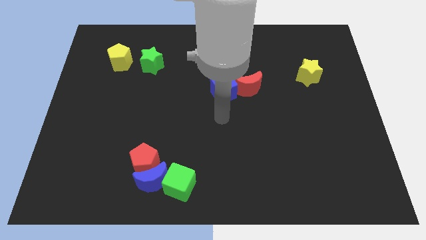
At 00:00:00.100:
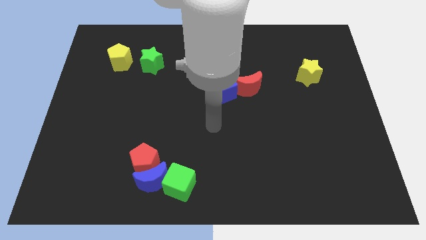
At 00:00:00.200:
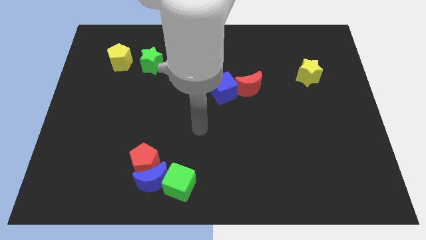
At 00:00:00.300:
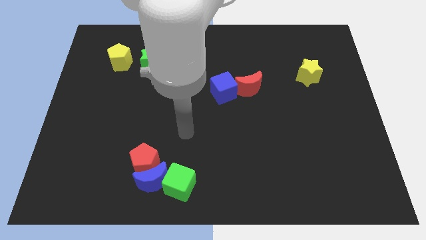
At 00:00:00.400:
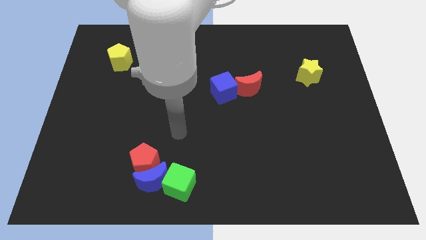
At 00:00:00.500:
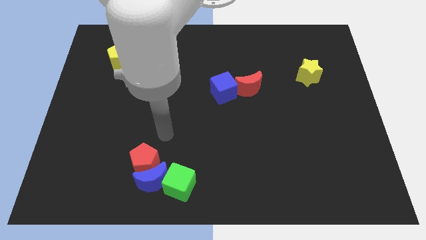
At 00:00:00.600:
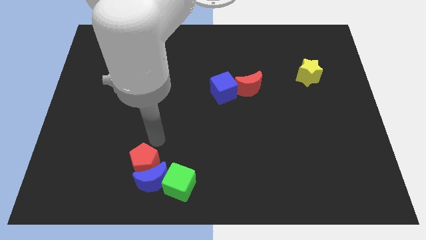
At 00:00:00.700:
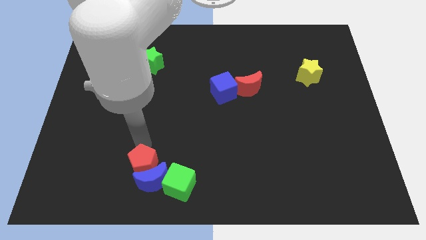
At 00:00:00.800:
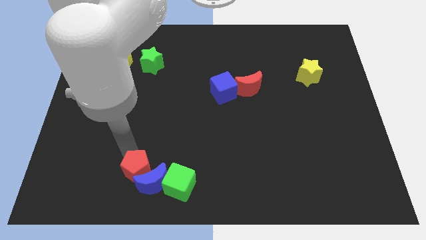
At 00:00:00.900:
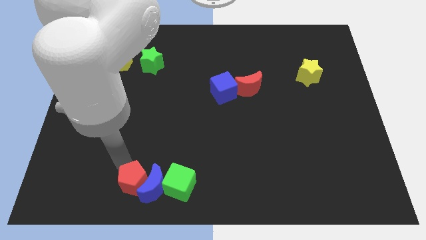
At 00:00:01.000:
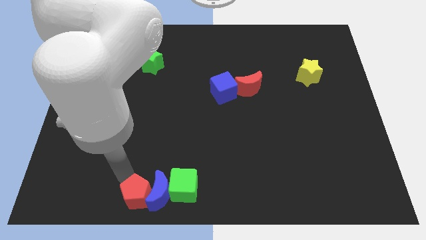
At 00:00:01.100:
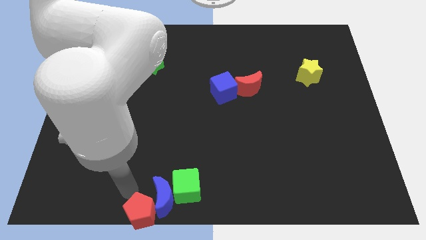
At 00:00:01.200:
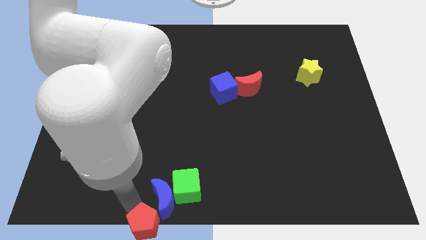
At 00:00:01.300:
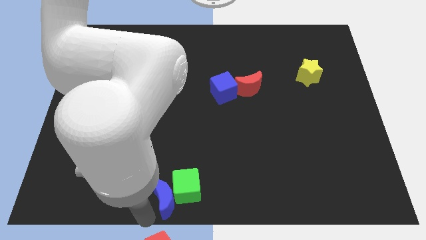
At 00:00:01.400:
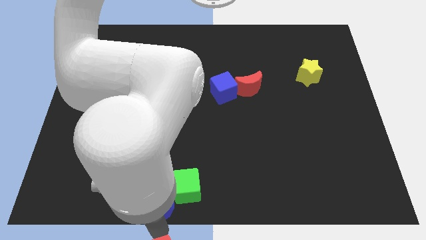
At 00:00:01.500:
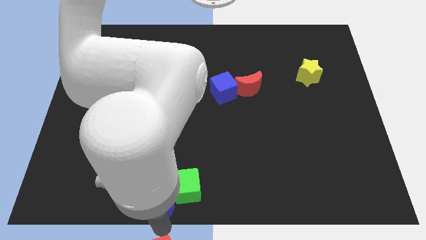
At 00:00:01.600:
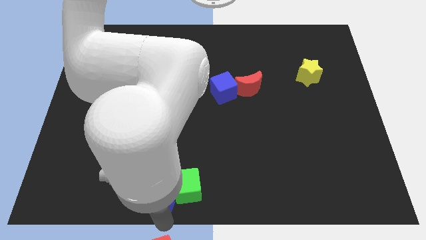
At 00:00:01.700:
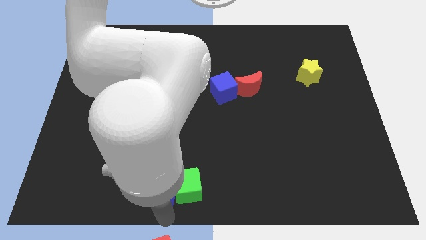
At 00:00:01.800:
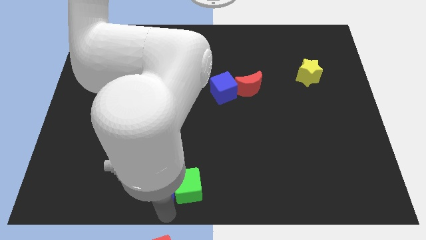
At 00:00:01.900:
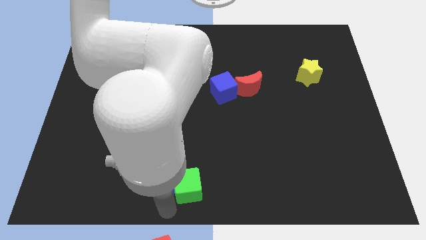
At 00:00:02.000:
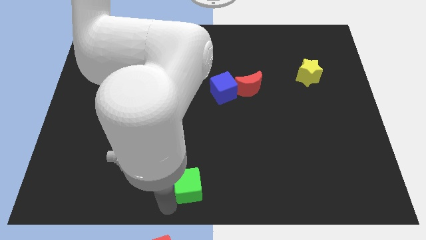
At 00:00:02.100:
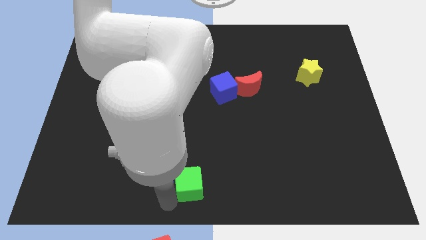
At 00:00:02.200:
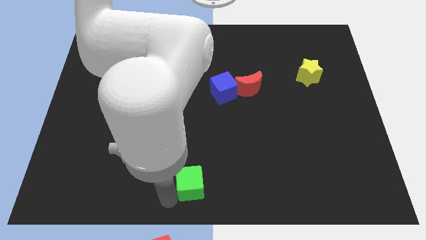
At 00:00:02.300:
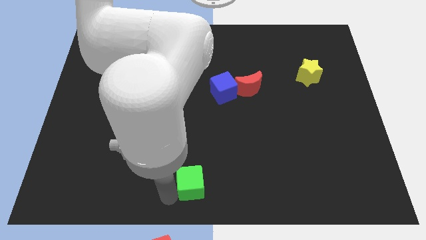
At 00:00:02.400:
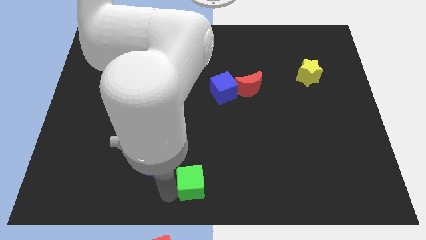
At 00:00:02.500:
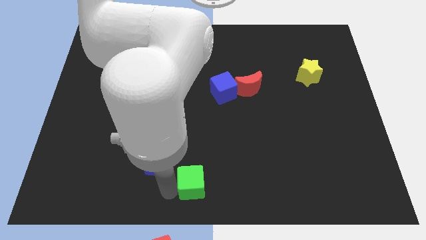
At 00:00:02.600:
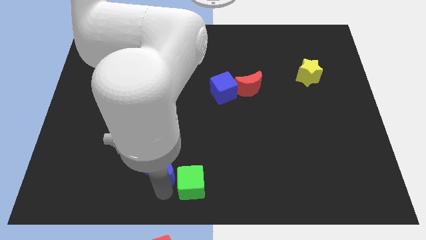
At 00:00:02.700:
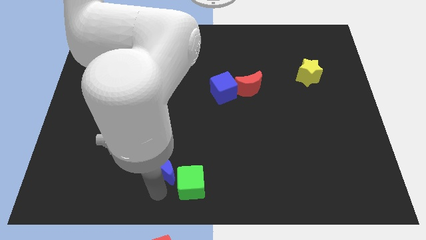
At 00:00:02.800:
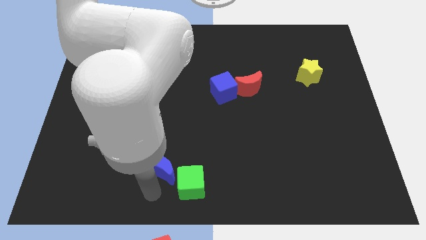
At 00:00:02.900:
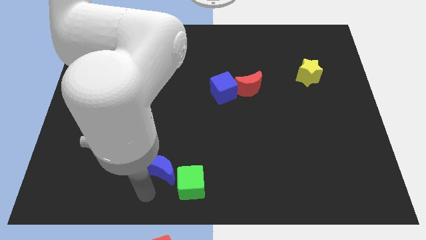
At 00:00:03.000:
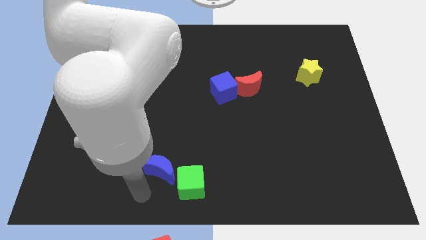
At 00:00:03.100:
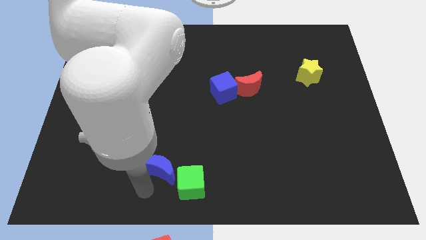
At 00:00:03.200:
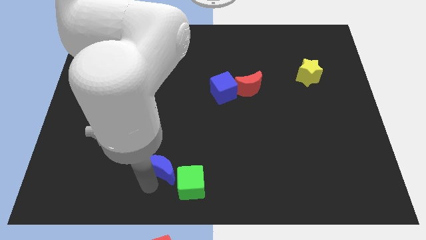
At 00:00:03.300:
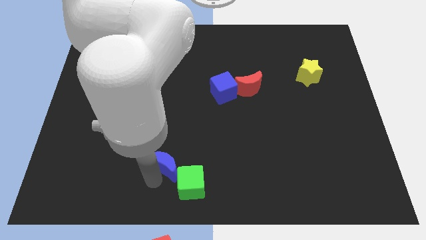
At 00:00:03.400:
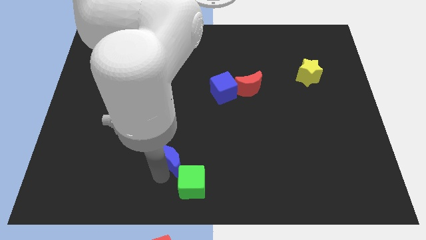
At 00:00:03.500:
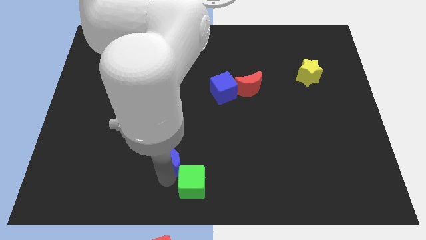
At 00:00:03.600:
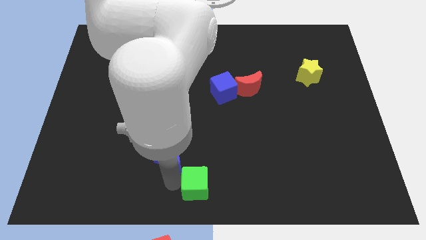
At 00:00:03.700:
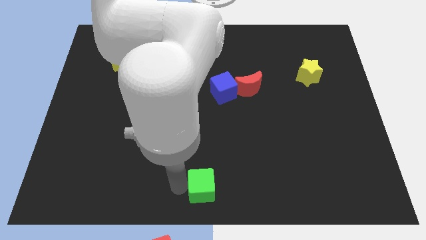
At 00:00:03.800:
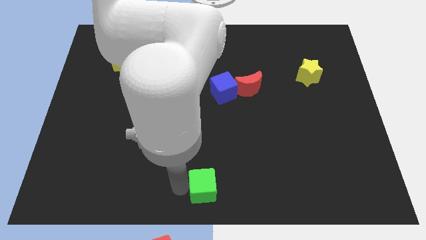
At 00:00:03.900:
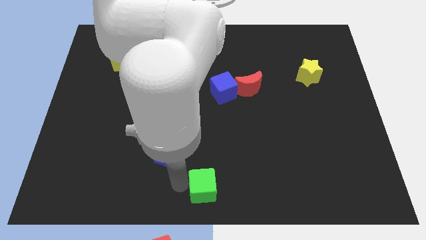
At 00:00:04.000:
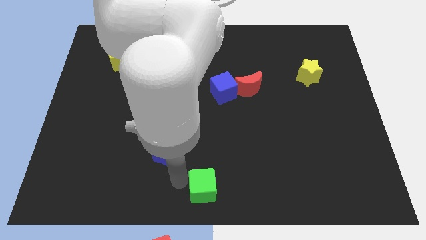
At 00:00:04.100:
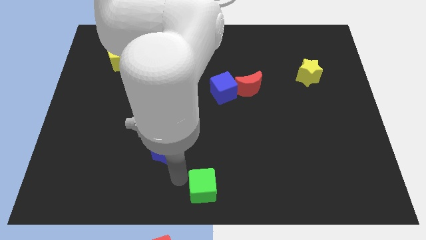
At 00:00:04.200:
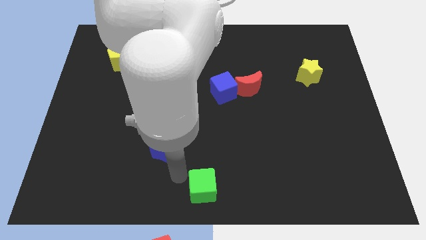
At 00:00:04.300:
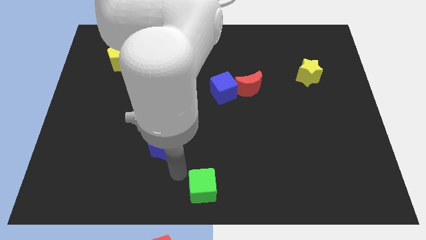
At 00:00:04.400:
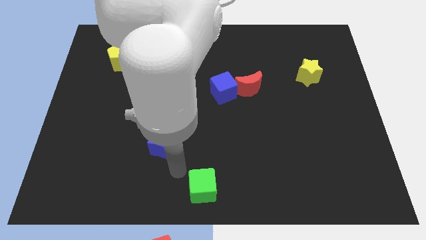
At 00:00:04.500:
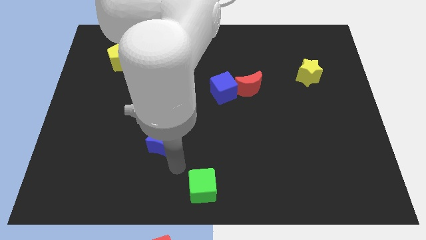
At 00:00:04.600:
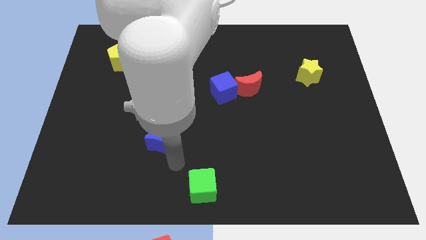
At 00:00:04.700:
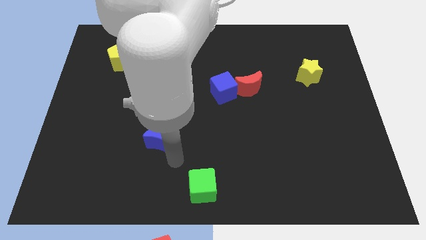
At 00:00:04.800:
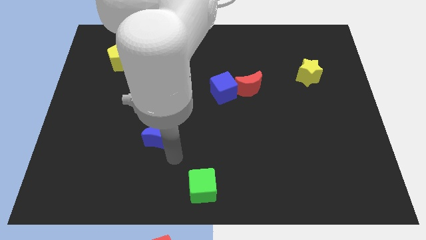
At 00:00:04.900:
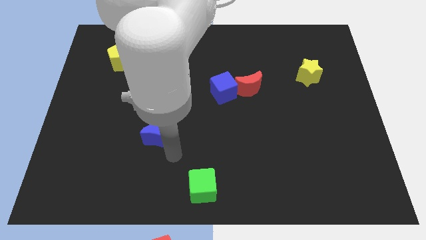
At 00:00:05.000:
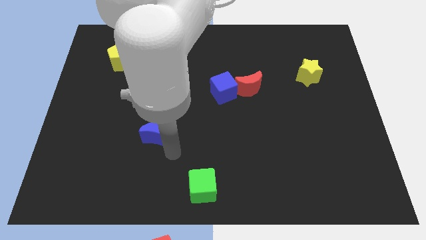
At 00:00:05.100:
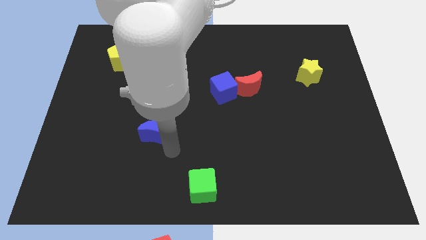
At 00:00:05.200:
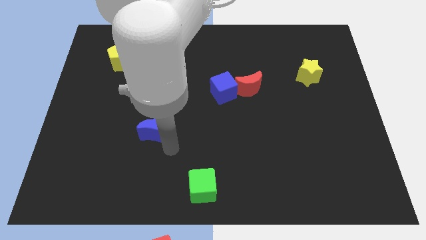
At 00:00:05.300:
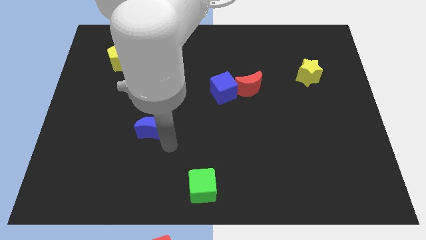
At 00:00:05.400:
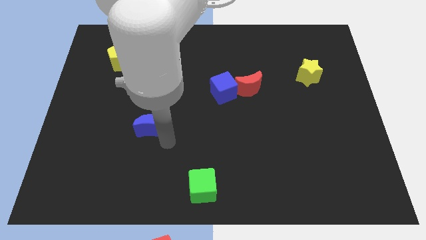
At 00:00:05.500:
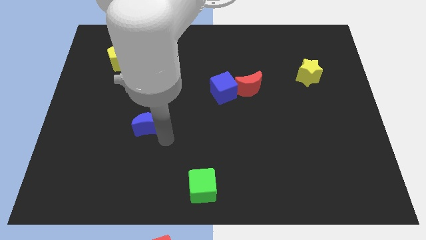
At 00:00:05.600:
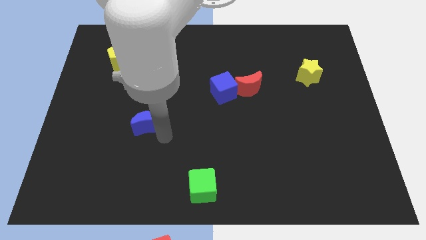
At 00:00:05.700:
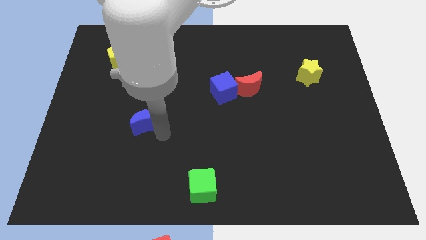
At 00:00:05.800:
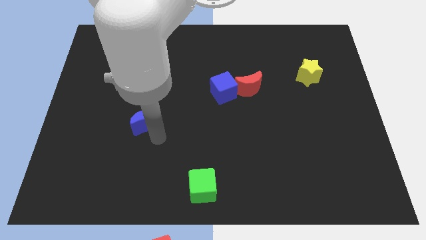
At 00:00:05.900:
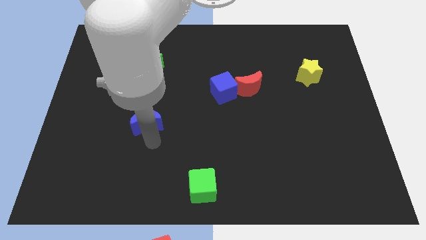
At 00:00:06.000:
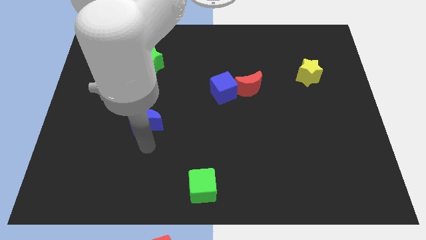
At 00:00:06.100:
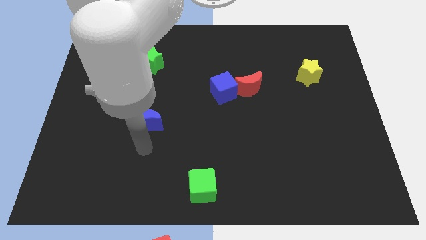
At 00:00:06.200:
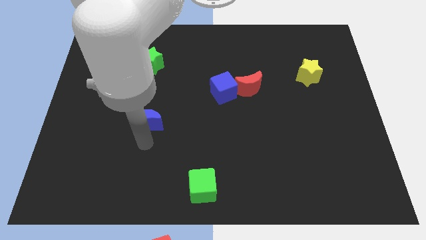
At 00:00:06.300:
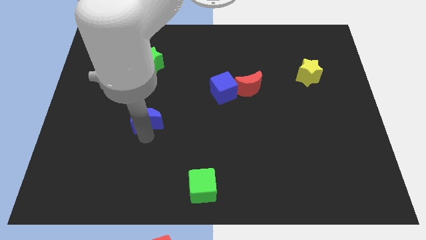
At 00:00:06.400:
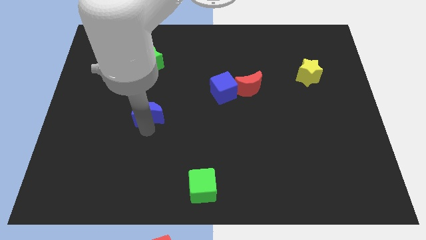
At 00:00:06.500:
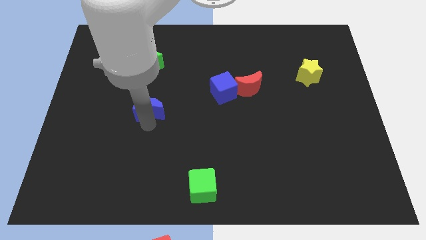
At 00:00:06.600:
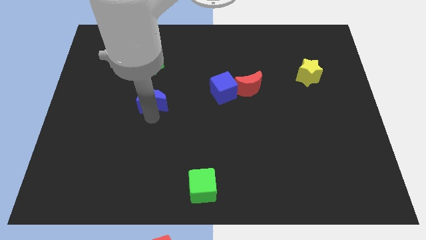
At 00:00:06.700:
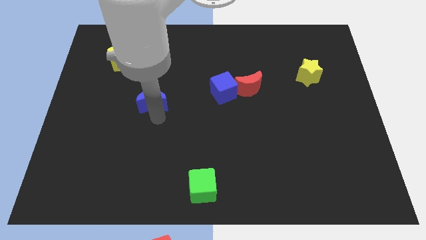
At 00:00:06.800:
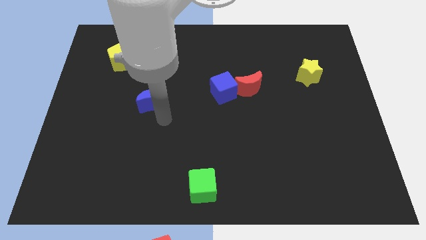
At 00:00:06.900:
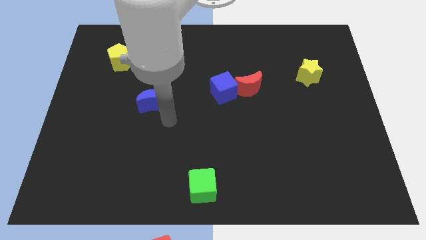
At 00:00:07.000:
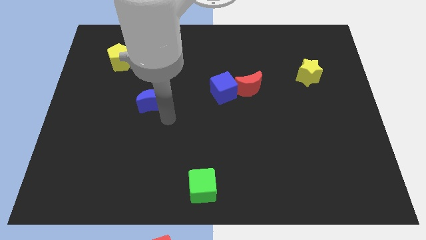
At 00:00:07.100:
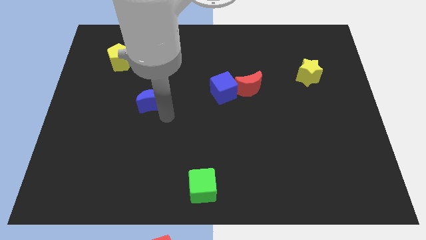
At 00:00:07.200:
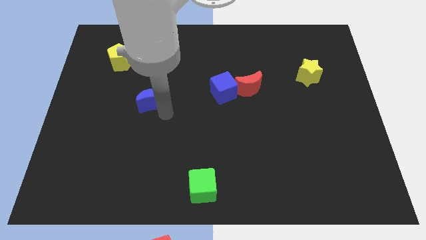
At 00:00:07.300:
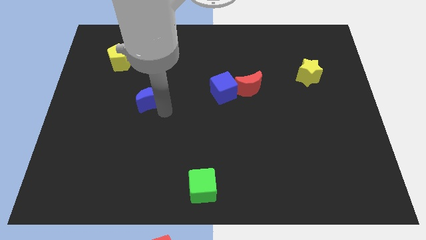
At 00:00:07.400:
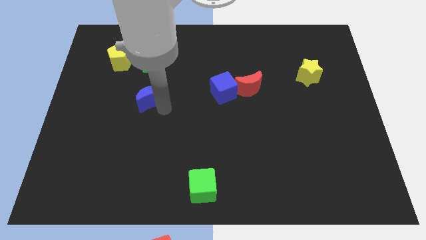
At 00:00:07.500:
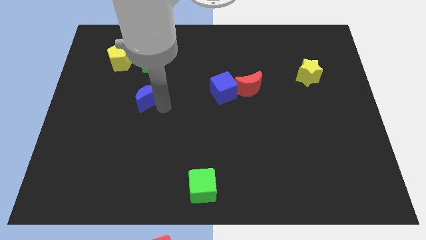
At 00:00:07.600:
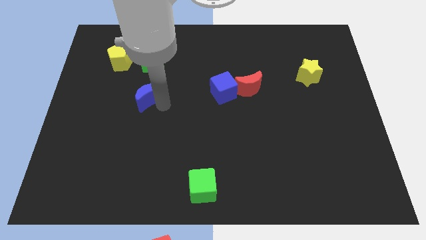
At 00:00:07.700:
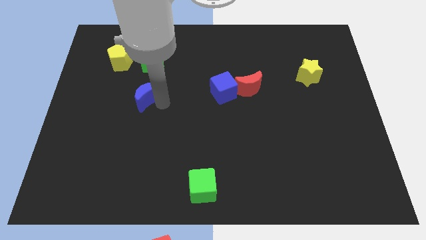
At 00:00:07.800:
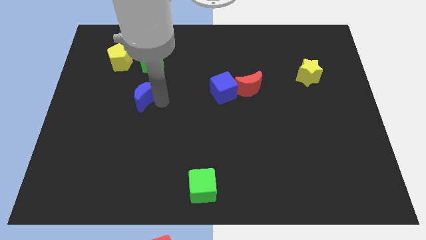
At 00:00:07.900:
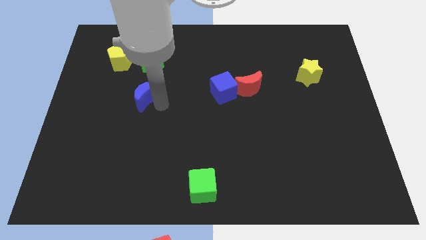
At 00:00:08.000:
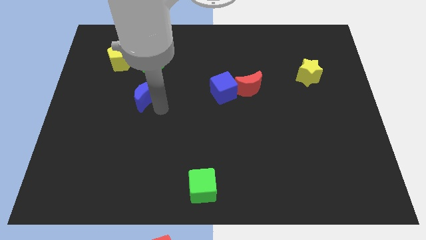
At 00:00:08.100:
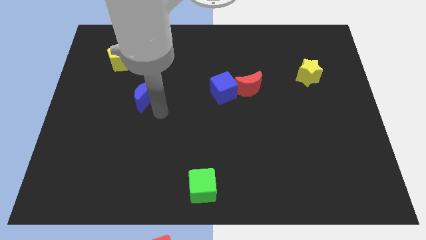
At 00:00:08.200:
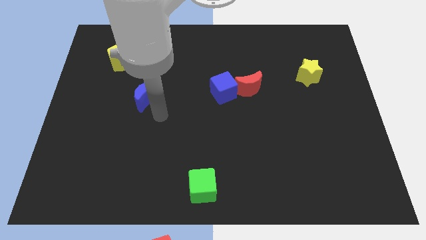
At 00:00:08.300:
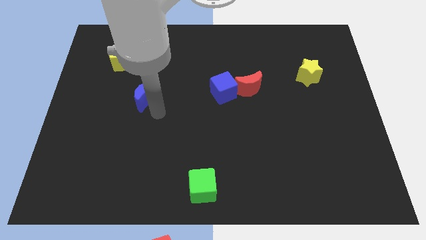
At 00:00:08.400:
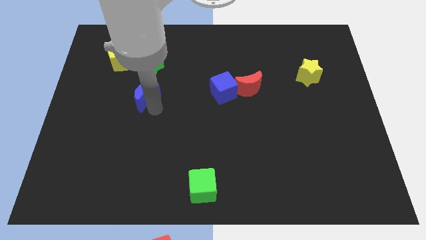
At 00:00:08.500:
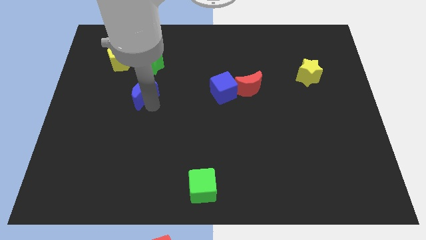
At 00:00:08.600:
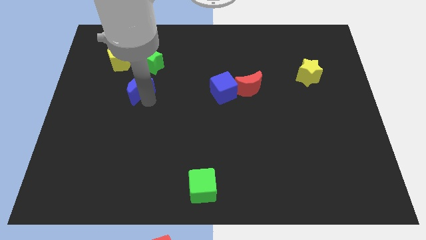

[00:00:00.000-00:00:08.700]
put the blue moon diagonally down and to the left of the green star
